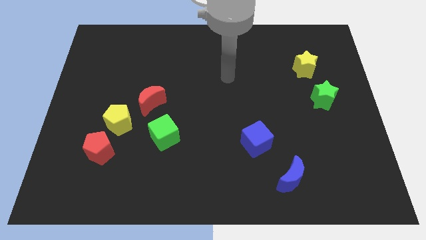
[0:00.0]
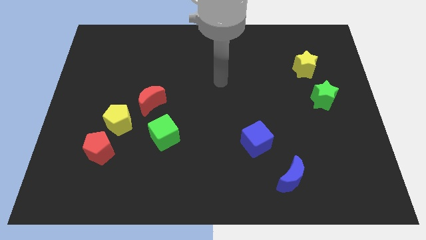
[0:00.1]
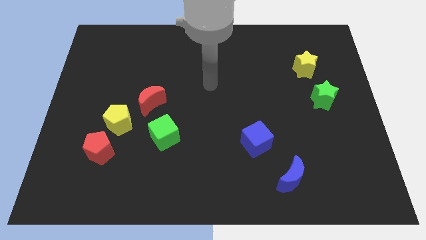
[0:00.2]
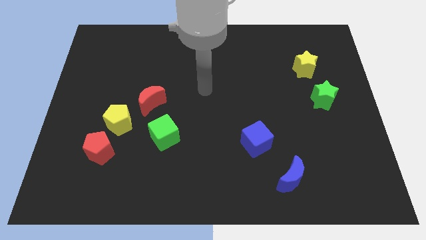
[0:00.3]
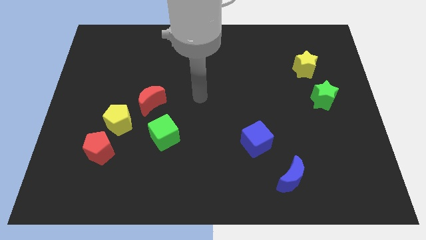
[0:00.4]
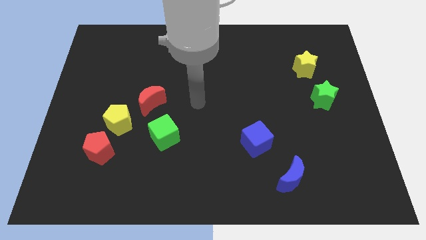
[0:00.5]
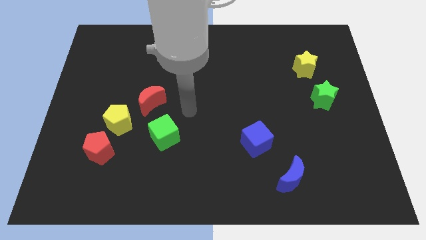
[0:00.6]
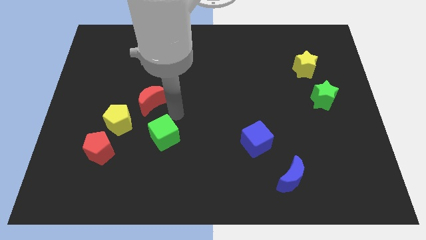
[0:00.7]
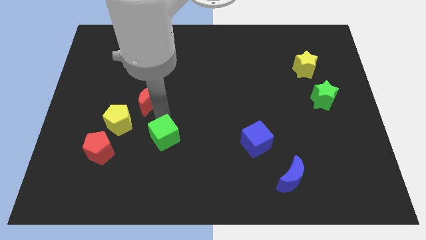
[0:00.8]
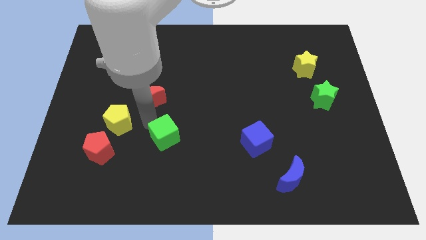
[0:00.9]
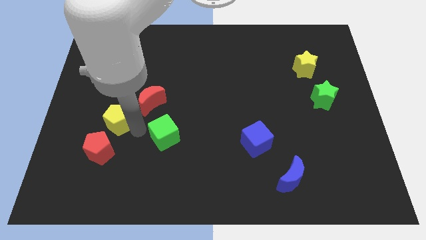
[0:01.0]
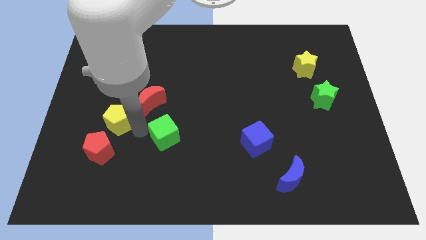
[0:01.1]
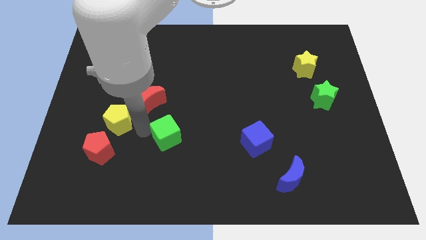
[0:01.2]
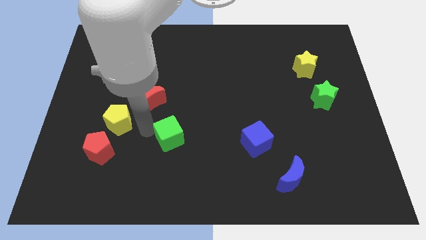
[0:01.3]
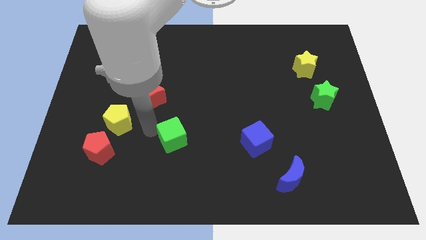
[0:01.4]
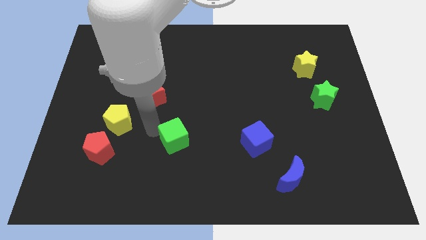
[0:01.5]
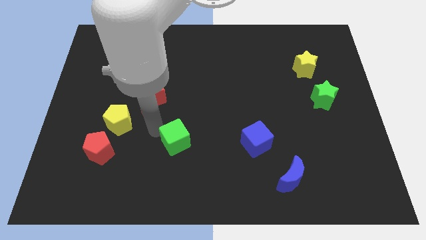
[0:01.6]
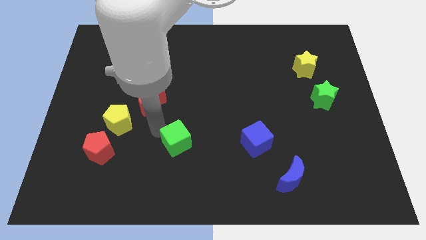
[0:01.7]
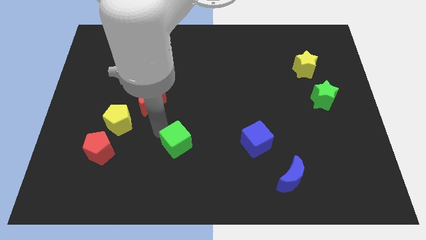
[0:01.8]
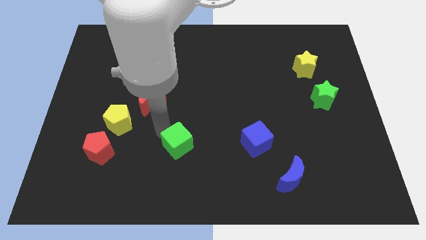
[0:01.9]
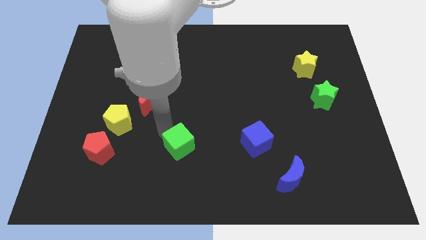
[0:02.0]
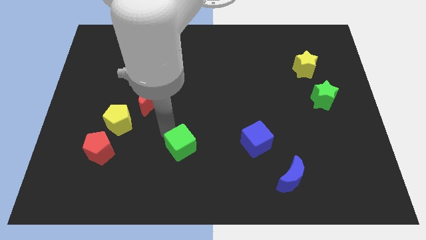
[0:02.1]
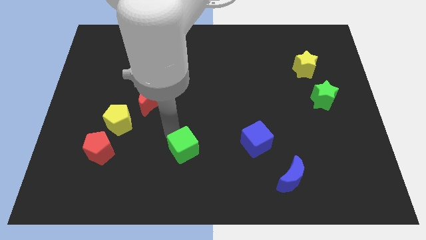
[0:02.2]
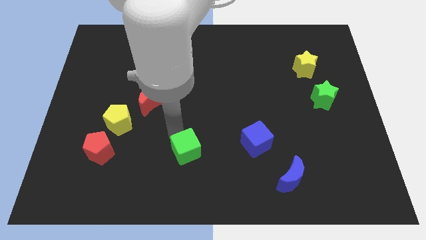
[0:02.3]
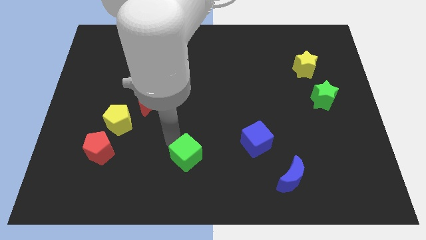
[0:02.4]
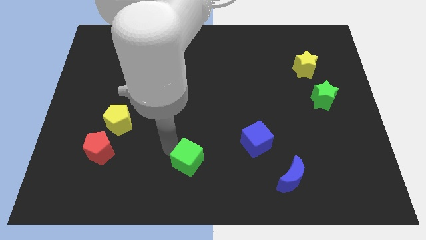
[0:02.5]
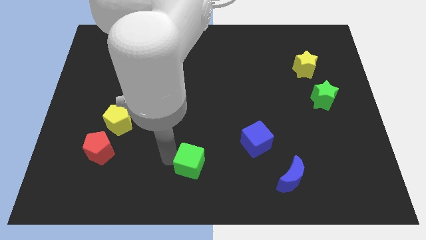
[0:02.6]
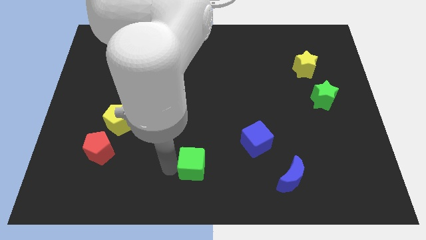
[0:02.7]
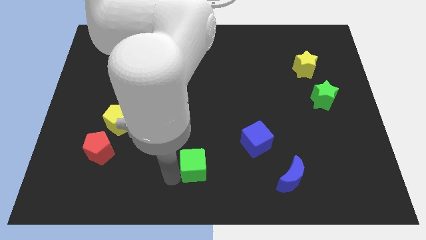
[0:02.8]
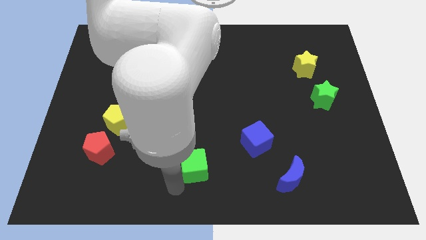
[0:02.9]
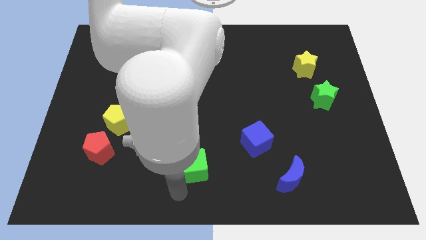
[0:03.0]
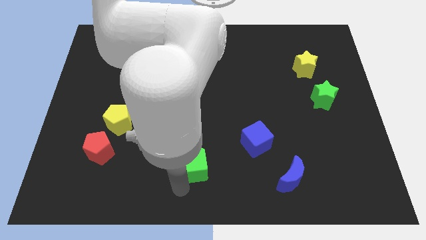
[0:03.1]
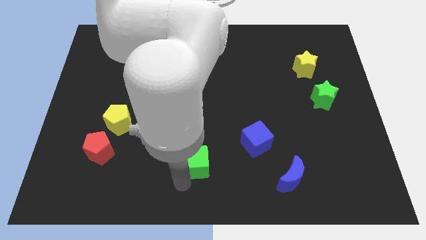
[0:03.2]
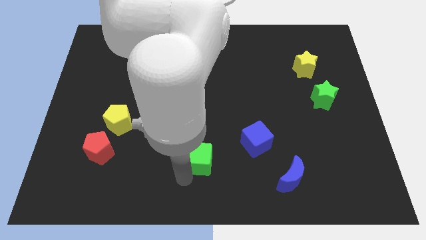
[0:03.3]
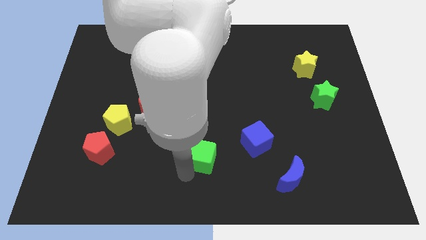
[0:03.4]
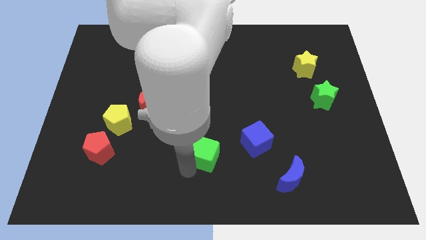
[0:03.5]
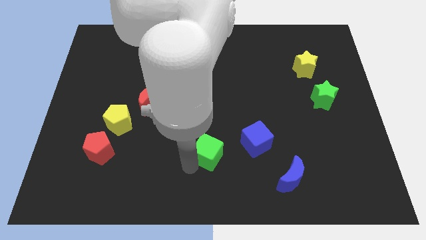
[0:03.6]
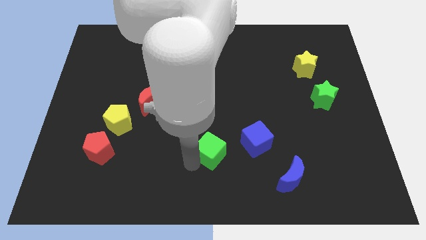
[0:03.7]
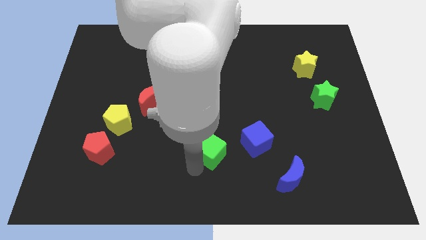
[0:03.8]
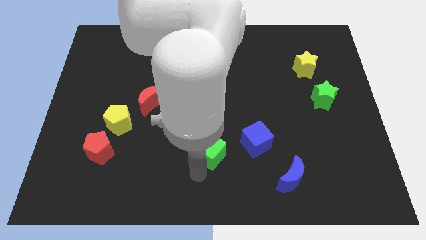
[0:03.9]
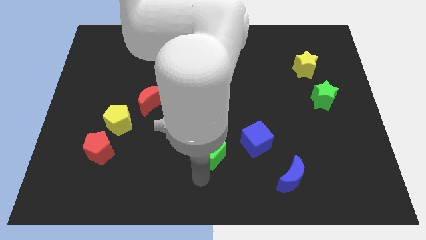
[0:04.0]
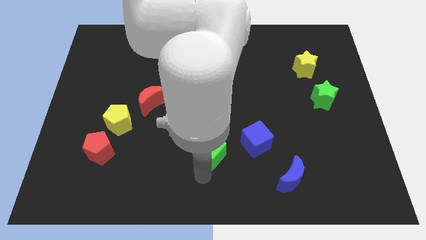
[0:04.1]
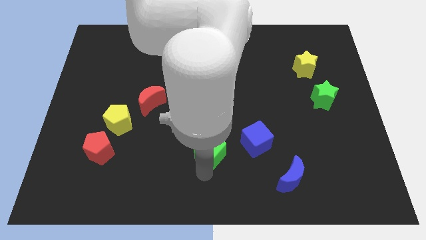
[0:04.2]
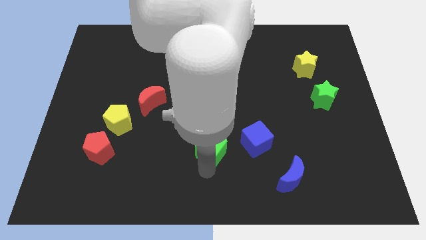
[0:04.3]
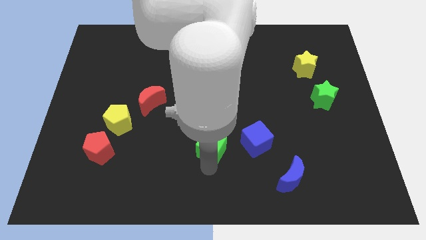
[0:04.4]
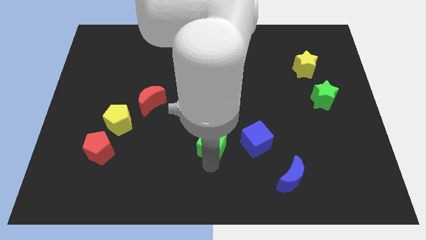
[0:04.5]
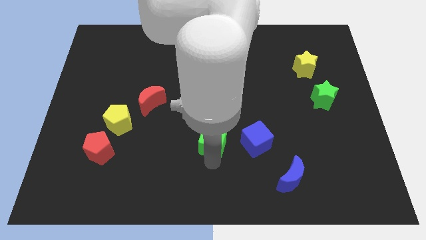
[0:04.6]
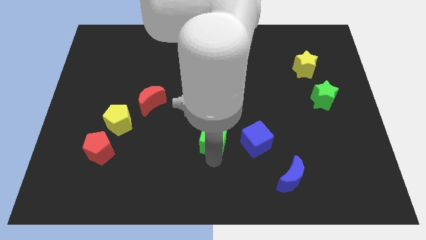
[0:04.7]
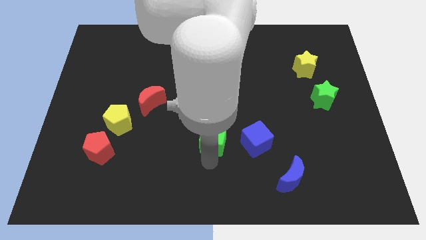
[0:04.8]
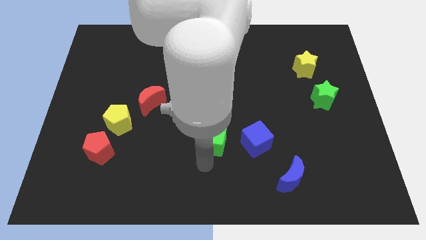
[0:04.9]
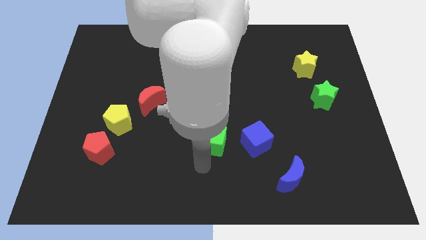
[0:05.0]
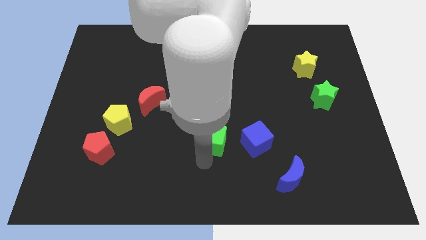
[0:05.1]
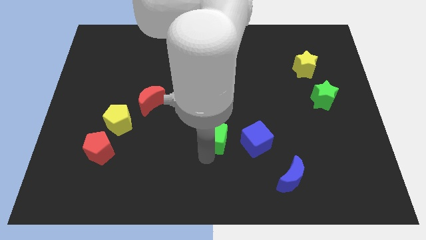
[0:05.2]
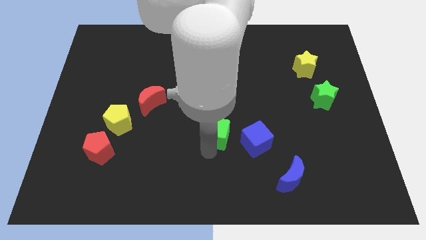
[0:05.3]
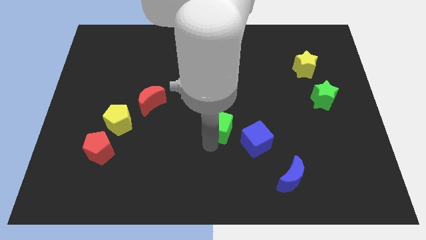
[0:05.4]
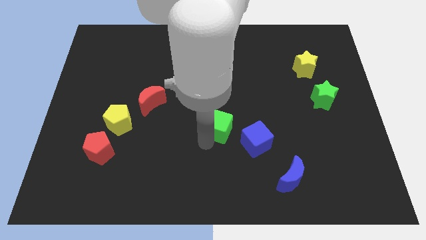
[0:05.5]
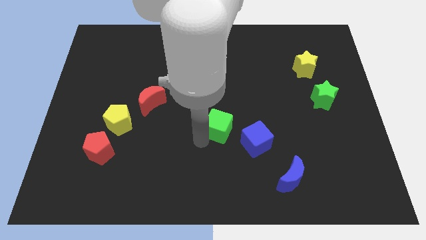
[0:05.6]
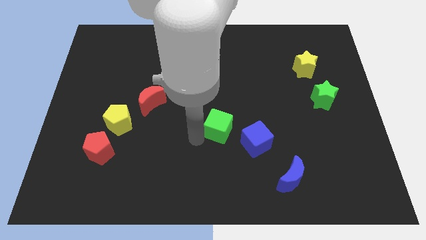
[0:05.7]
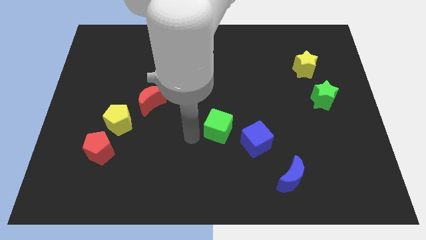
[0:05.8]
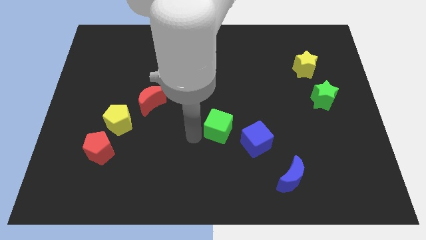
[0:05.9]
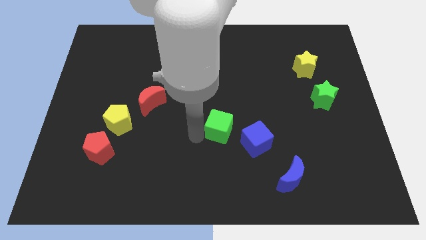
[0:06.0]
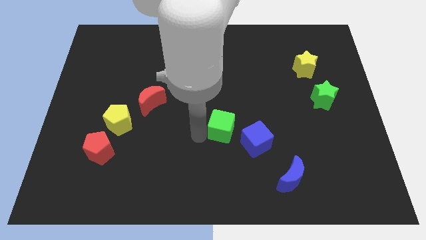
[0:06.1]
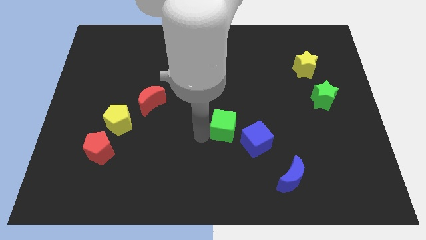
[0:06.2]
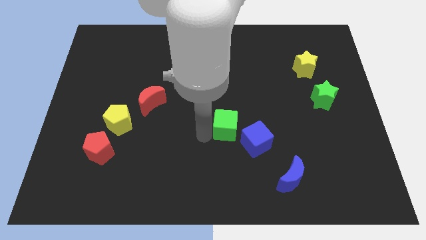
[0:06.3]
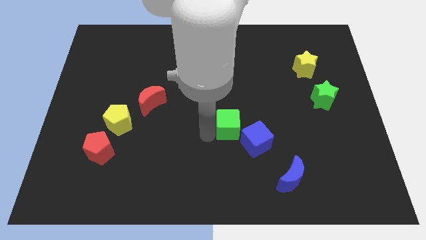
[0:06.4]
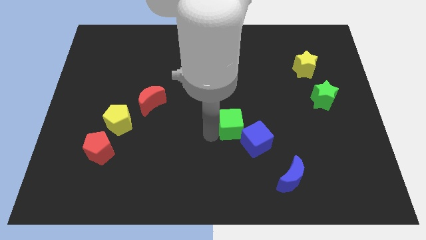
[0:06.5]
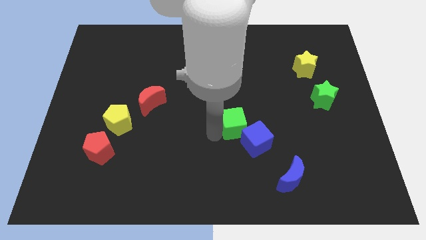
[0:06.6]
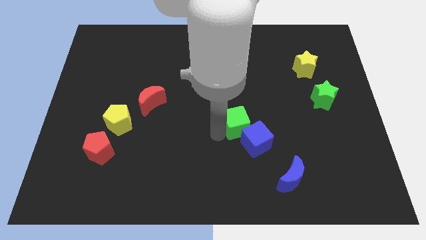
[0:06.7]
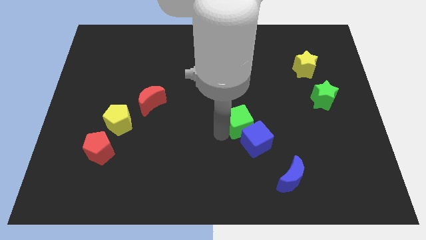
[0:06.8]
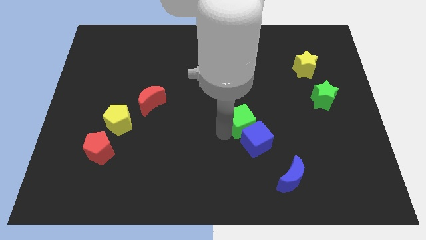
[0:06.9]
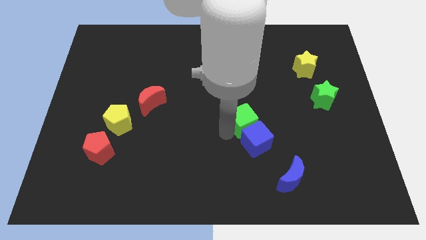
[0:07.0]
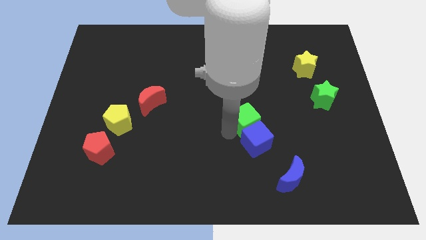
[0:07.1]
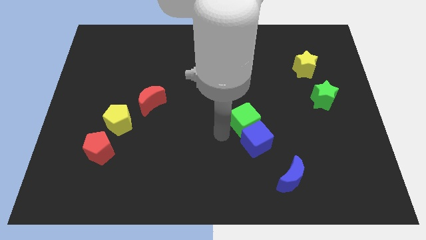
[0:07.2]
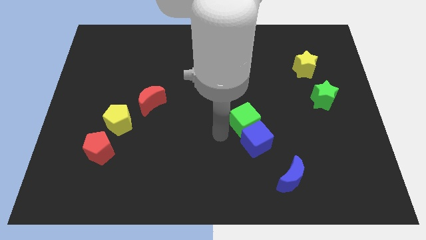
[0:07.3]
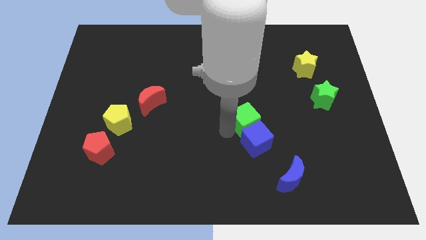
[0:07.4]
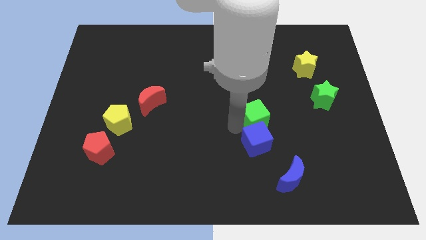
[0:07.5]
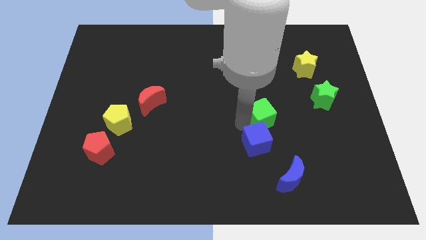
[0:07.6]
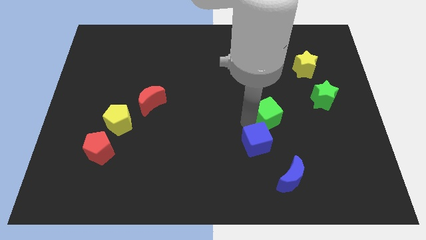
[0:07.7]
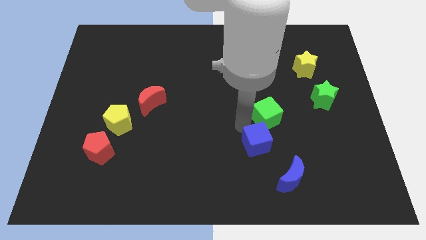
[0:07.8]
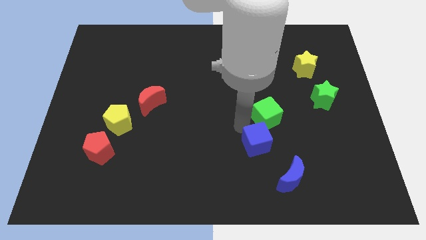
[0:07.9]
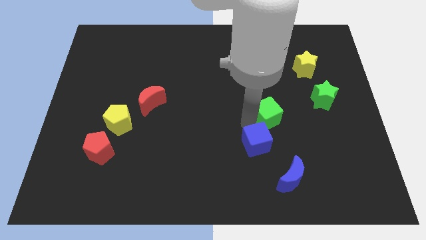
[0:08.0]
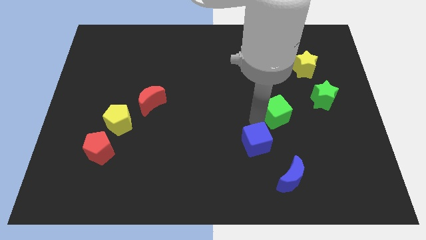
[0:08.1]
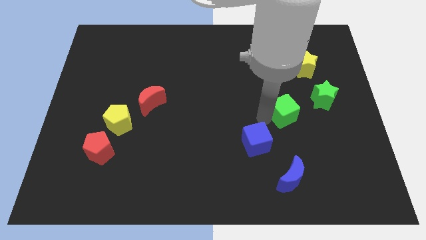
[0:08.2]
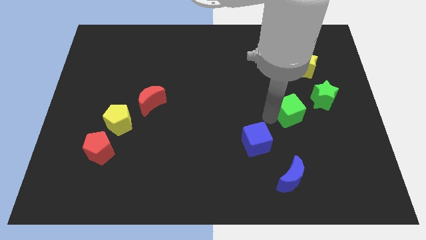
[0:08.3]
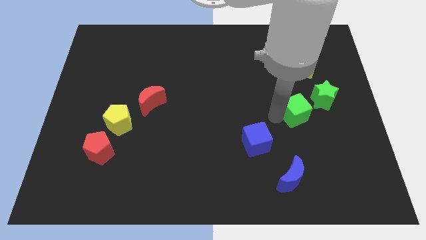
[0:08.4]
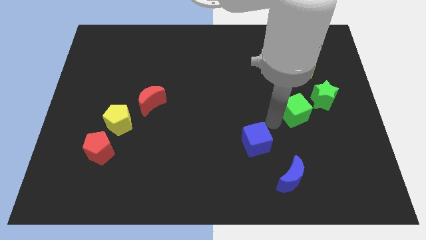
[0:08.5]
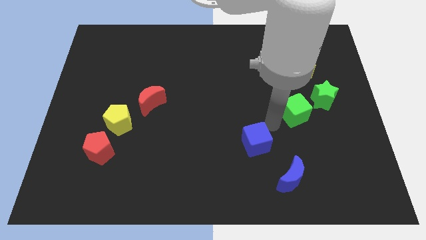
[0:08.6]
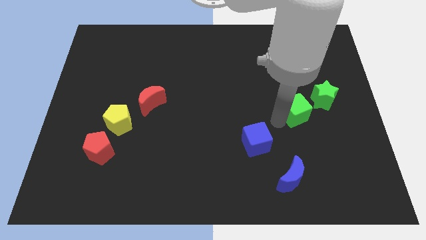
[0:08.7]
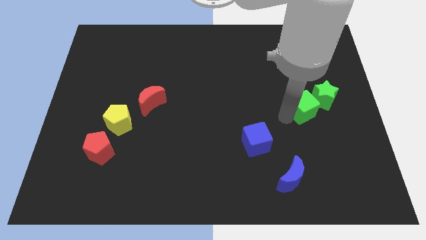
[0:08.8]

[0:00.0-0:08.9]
move the green cube towards the green star
